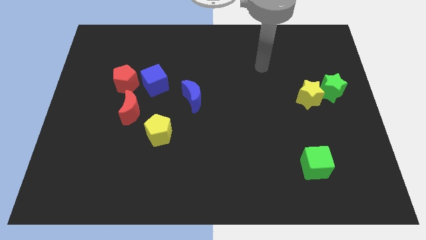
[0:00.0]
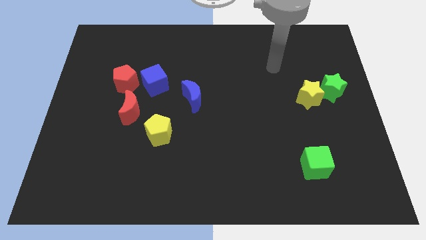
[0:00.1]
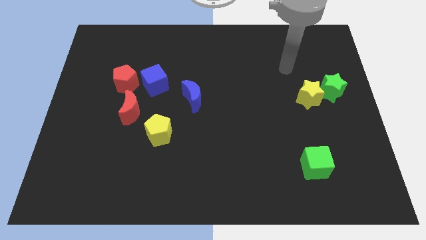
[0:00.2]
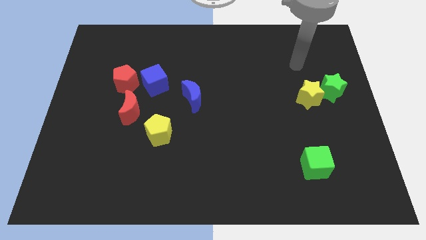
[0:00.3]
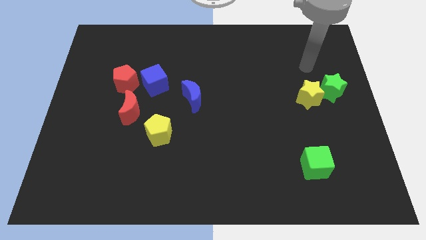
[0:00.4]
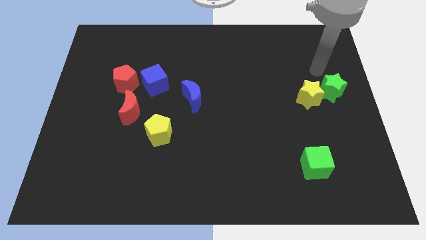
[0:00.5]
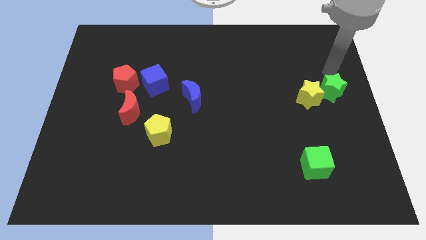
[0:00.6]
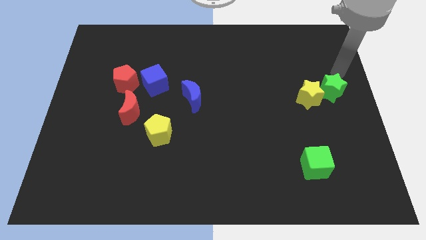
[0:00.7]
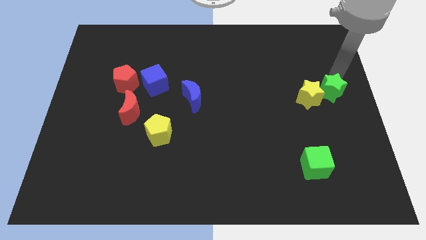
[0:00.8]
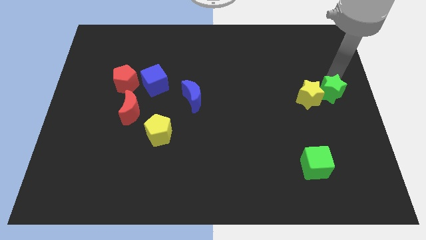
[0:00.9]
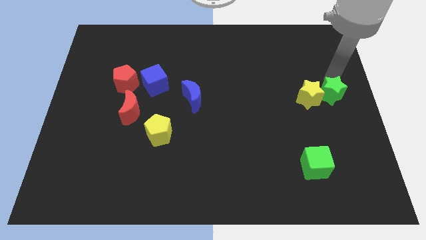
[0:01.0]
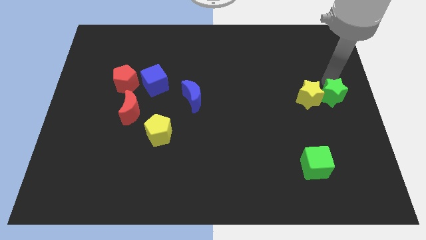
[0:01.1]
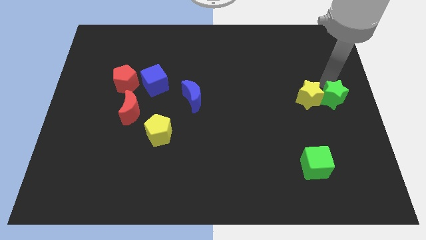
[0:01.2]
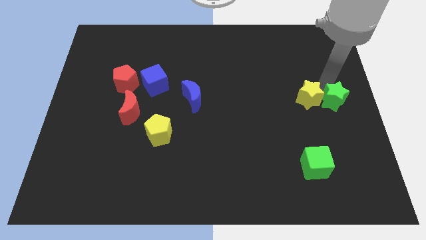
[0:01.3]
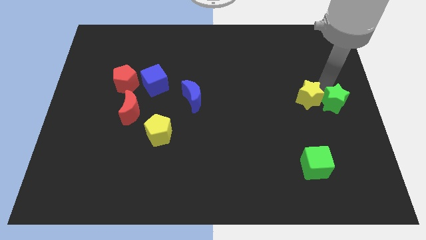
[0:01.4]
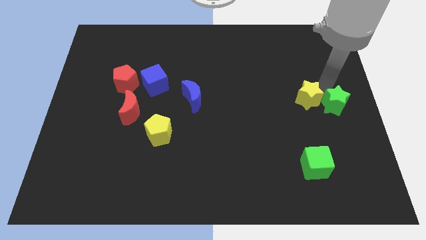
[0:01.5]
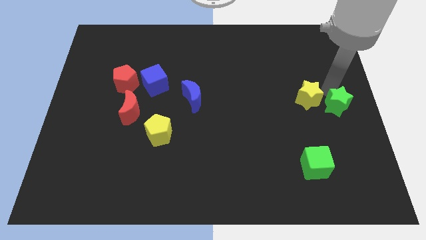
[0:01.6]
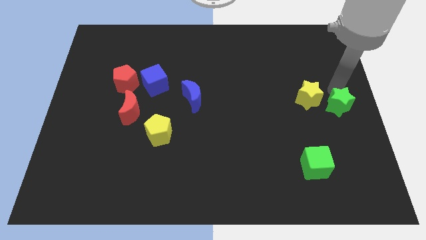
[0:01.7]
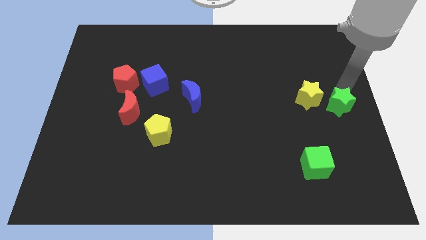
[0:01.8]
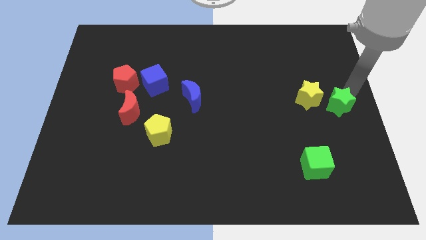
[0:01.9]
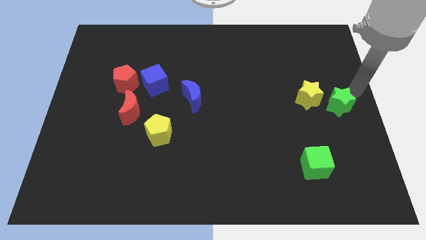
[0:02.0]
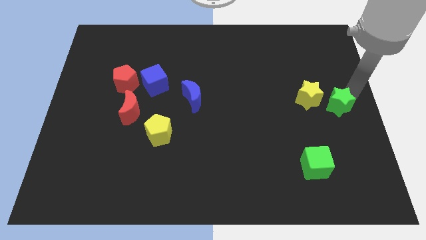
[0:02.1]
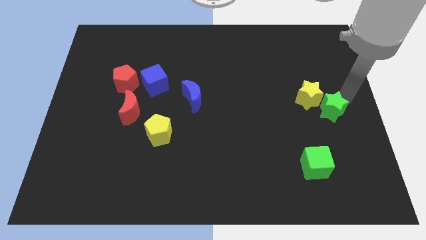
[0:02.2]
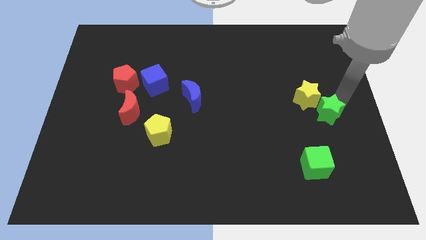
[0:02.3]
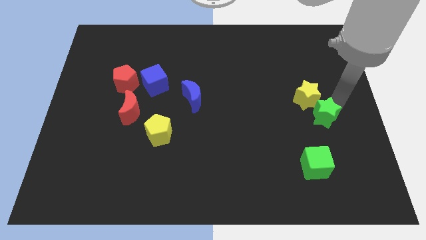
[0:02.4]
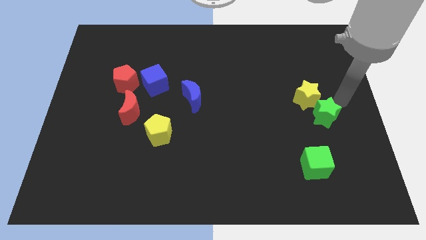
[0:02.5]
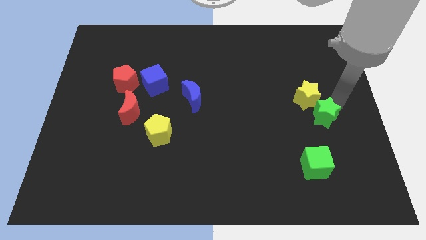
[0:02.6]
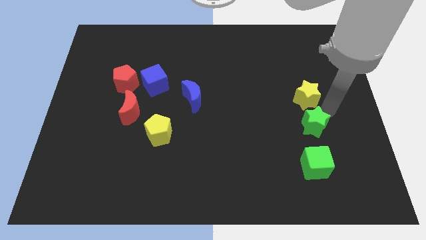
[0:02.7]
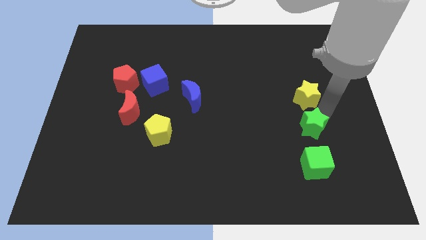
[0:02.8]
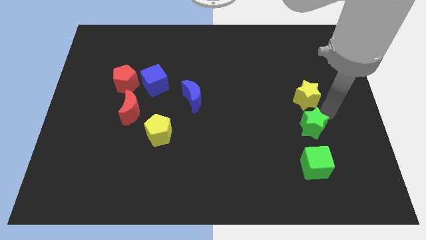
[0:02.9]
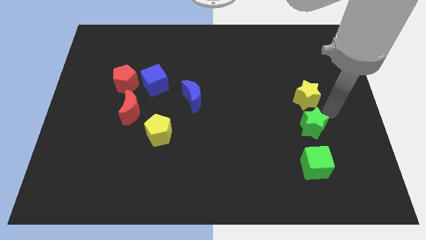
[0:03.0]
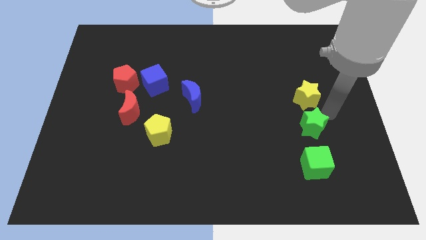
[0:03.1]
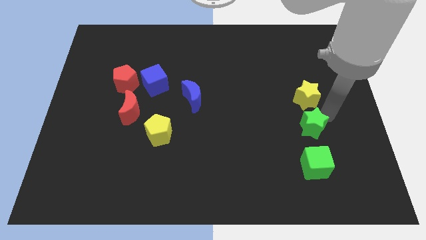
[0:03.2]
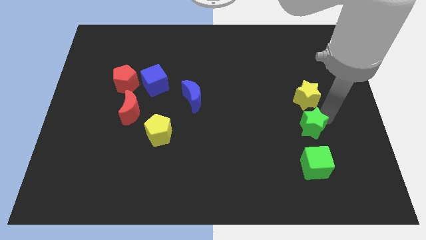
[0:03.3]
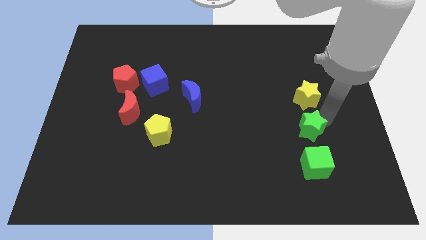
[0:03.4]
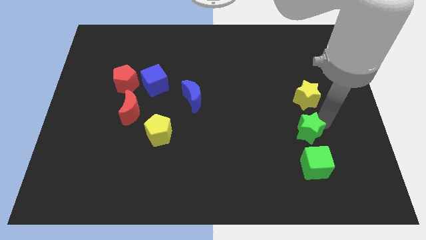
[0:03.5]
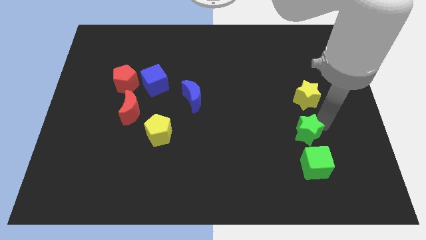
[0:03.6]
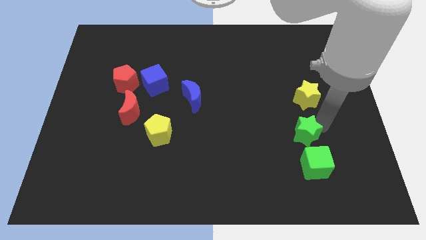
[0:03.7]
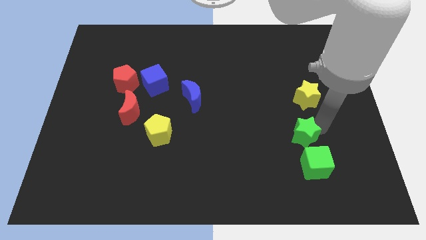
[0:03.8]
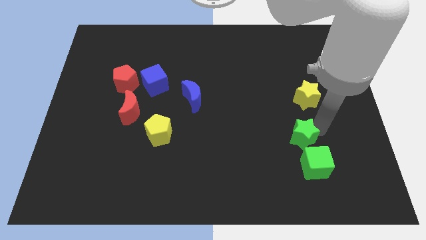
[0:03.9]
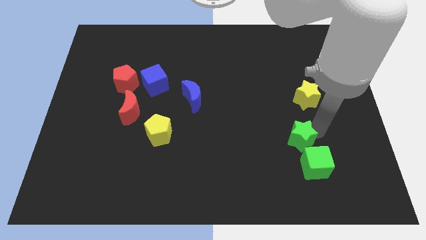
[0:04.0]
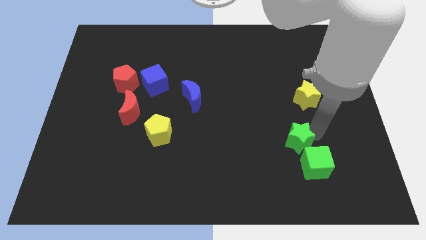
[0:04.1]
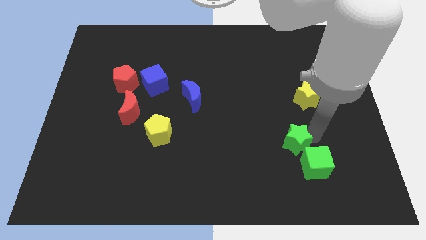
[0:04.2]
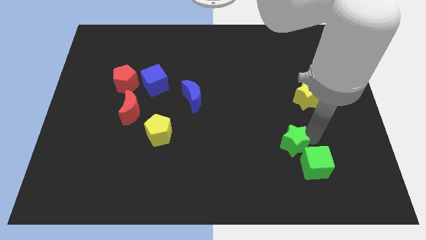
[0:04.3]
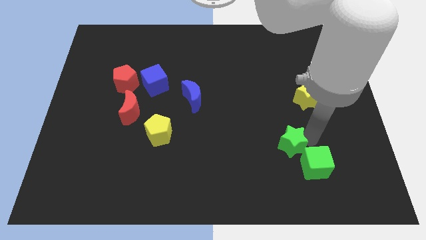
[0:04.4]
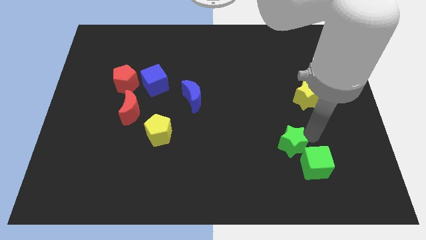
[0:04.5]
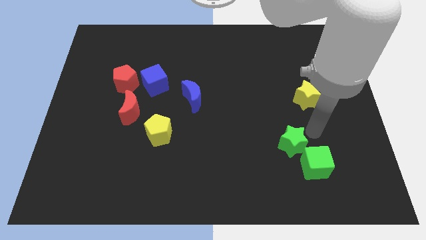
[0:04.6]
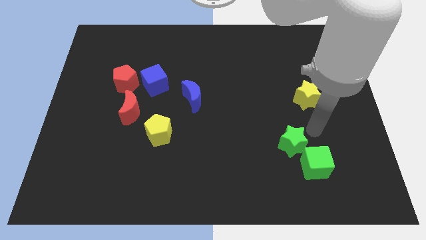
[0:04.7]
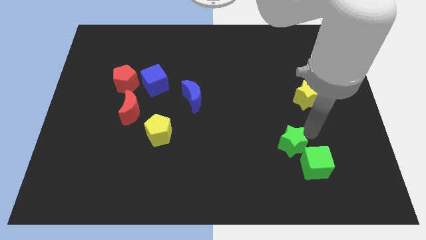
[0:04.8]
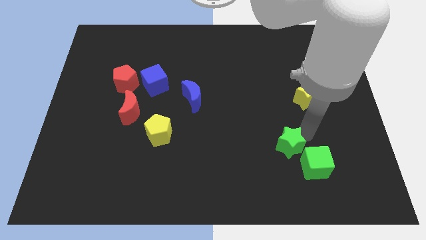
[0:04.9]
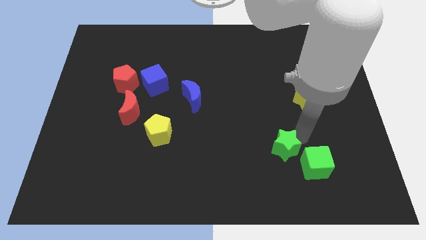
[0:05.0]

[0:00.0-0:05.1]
push the green star left of the green cube

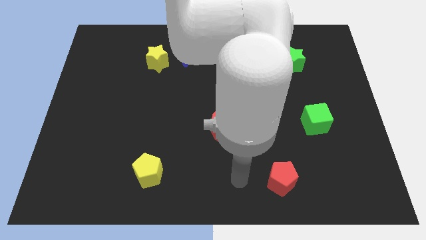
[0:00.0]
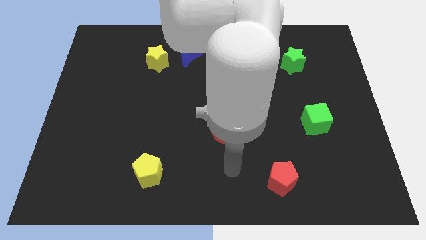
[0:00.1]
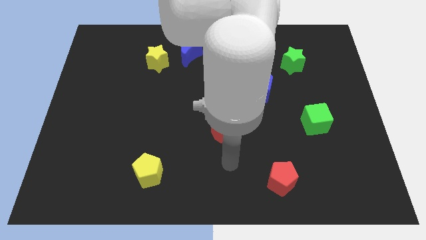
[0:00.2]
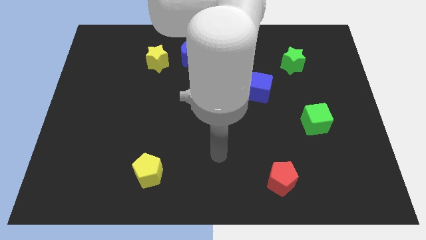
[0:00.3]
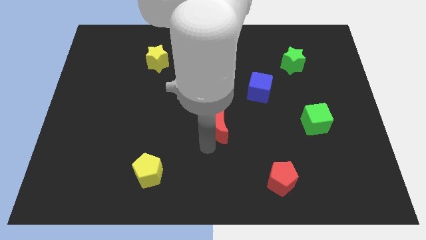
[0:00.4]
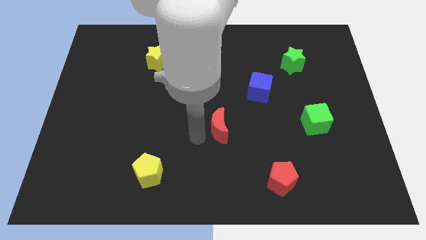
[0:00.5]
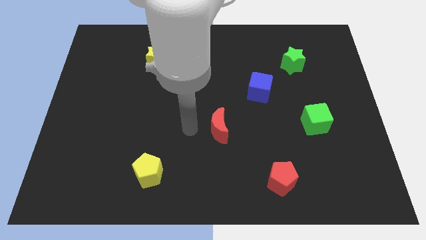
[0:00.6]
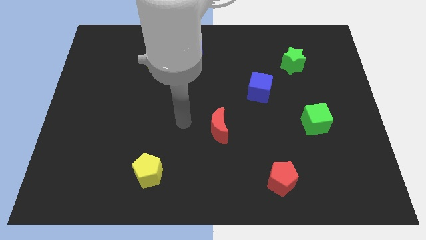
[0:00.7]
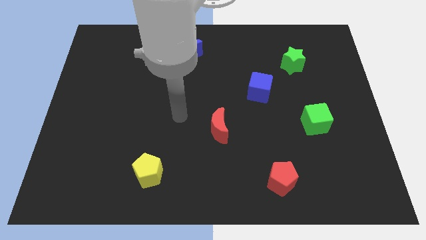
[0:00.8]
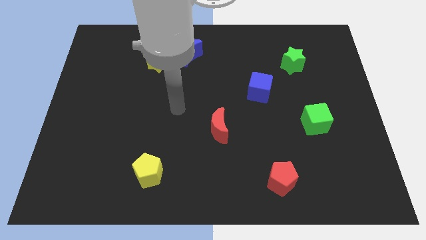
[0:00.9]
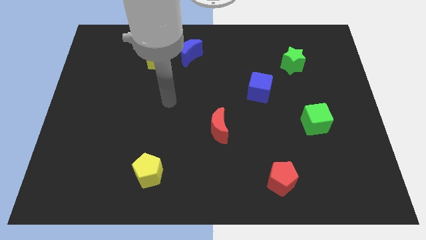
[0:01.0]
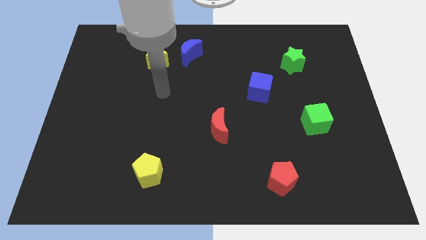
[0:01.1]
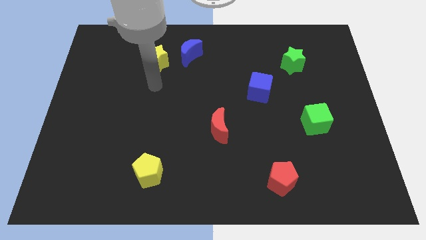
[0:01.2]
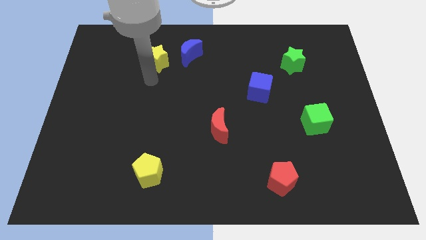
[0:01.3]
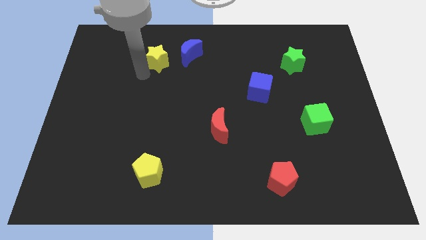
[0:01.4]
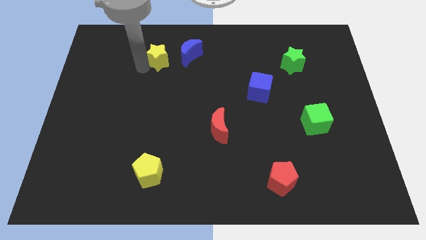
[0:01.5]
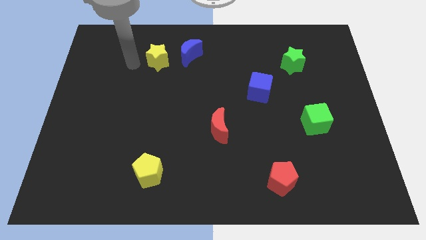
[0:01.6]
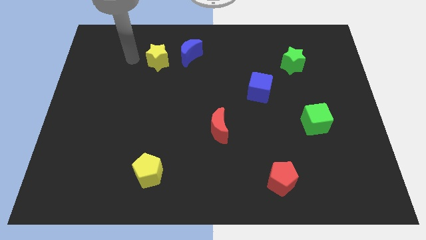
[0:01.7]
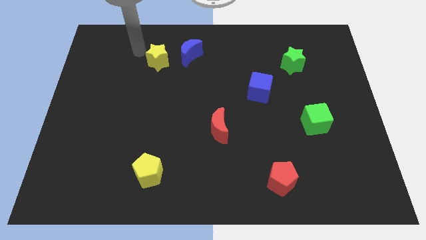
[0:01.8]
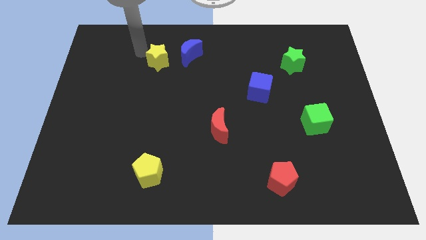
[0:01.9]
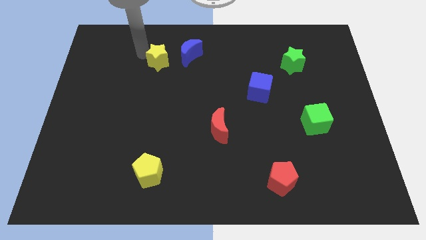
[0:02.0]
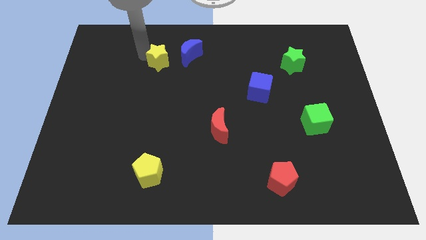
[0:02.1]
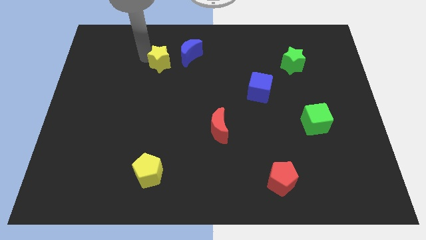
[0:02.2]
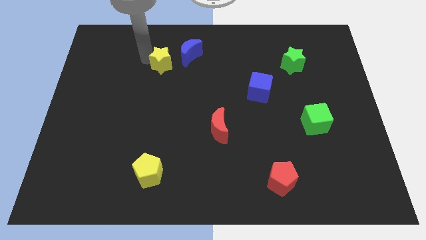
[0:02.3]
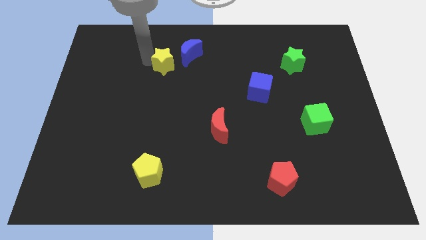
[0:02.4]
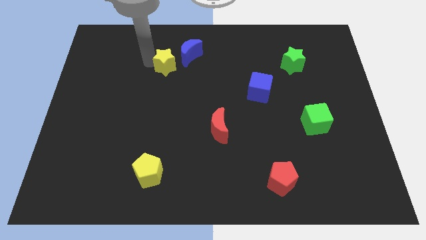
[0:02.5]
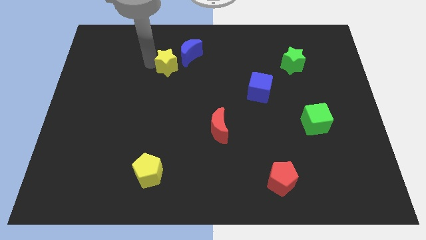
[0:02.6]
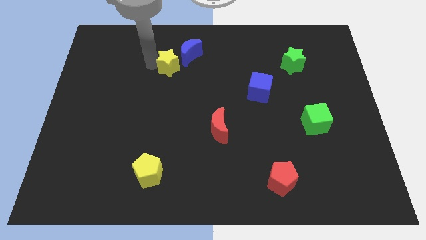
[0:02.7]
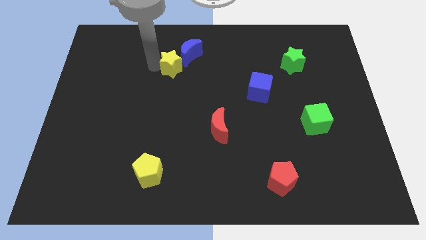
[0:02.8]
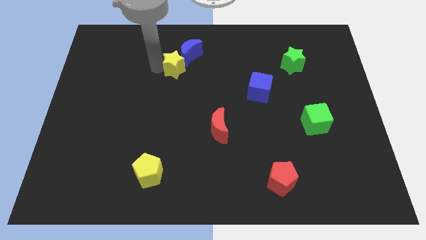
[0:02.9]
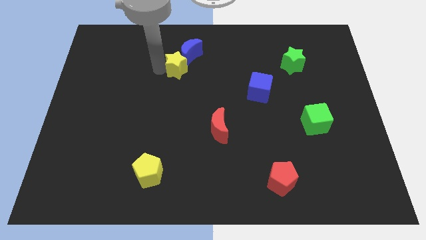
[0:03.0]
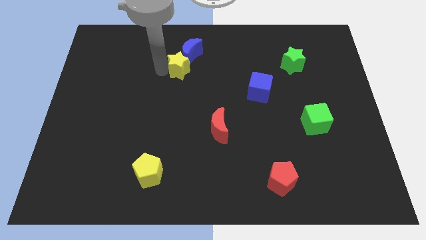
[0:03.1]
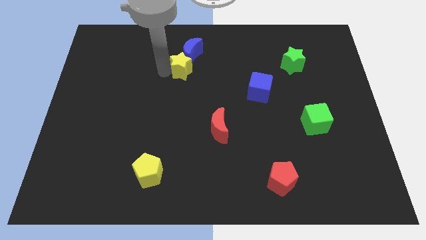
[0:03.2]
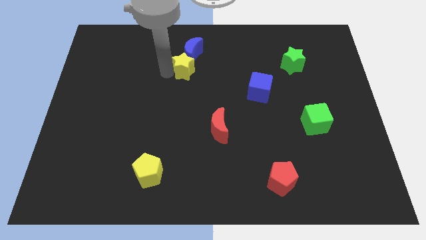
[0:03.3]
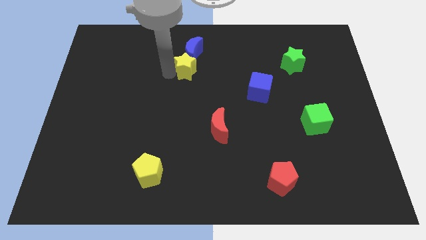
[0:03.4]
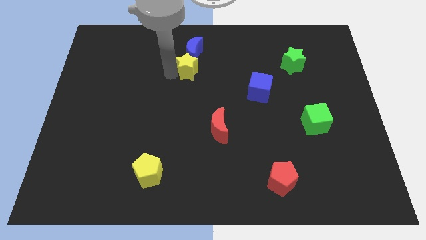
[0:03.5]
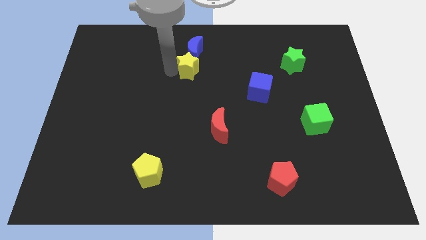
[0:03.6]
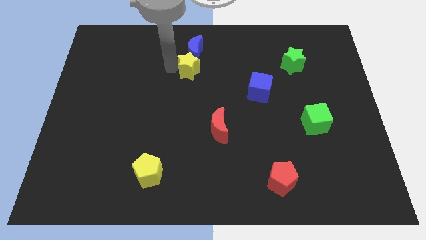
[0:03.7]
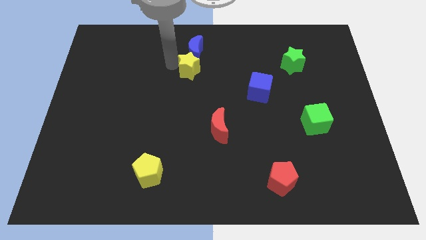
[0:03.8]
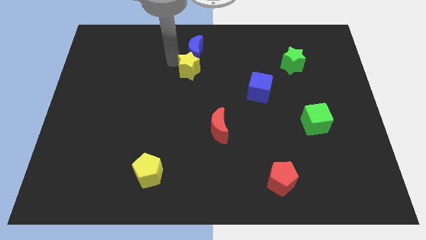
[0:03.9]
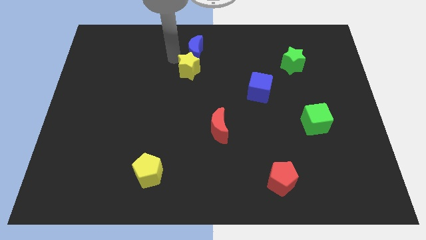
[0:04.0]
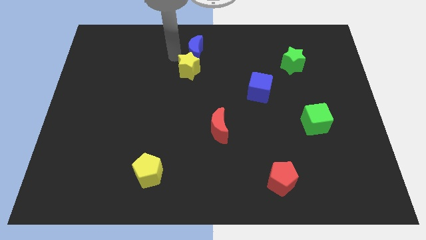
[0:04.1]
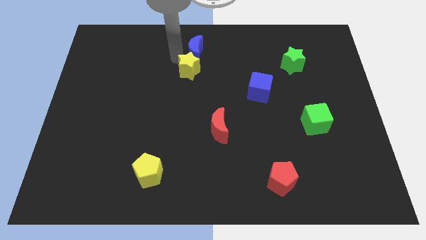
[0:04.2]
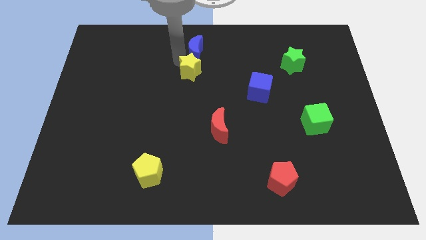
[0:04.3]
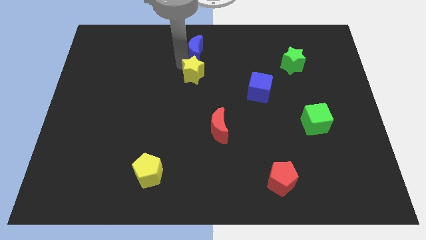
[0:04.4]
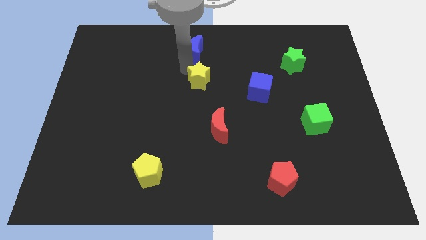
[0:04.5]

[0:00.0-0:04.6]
push the yellow star left of the blue cube
